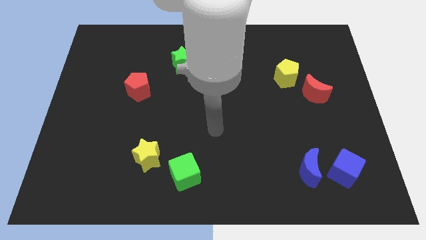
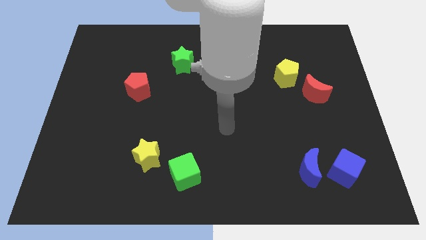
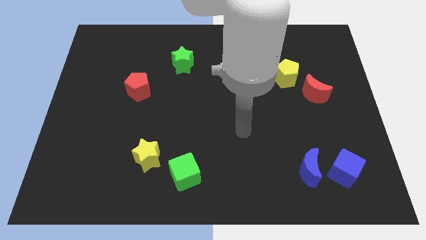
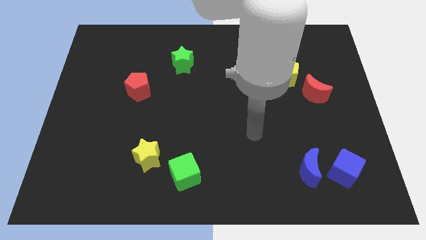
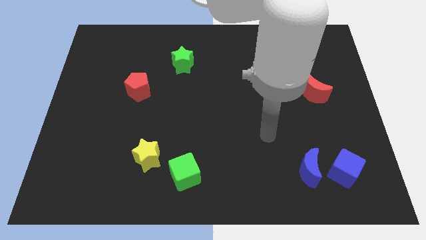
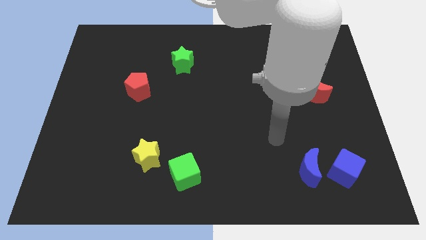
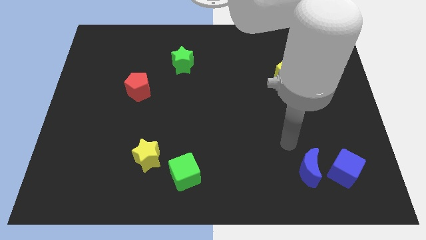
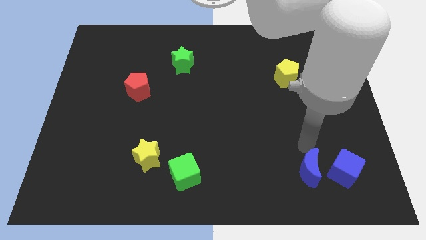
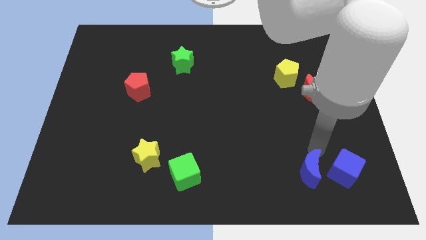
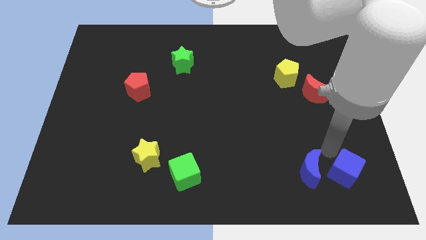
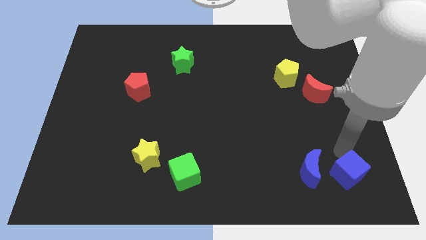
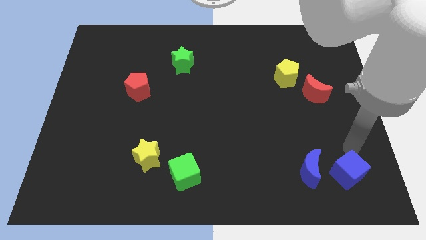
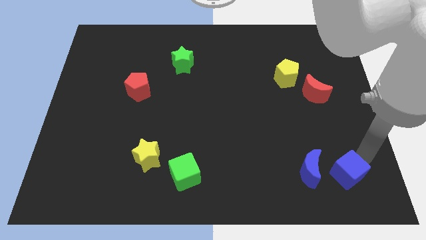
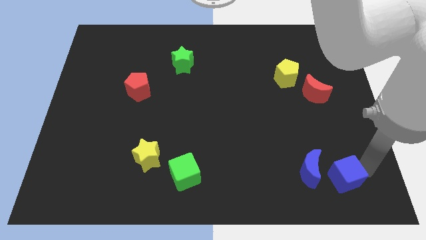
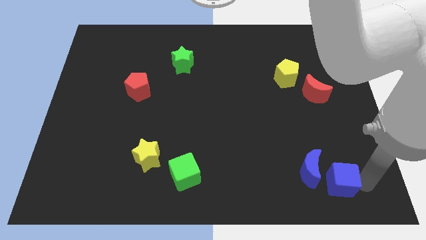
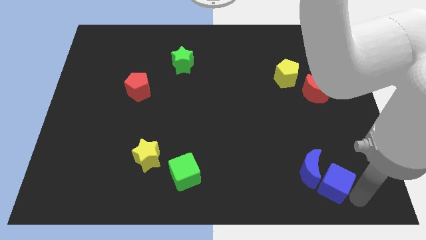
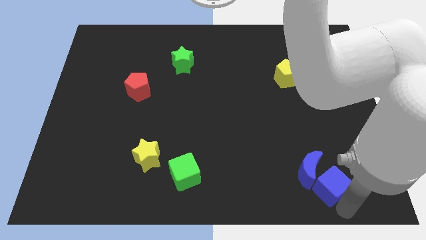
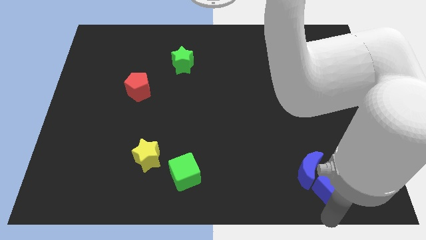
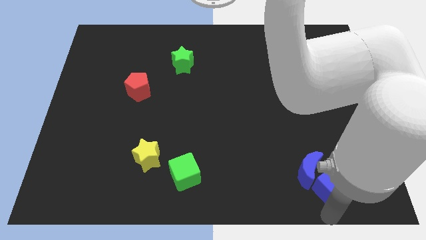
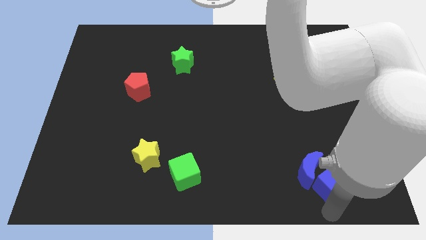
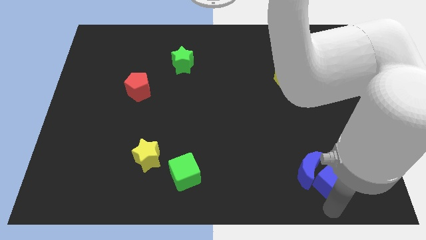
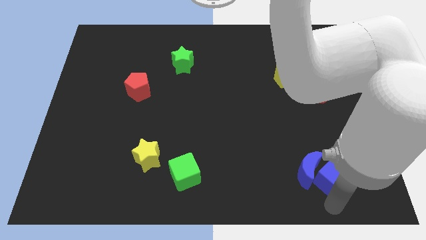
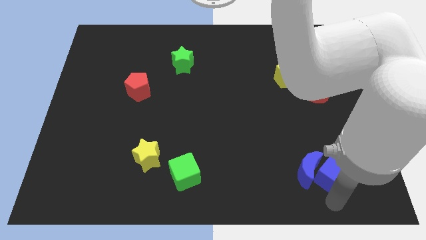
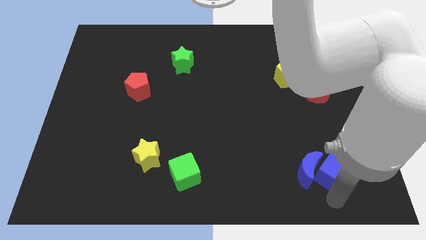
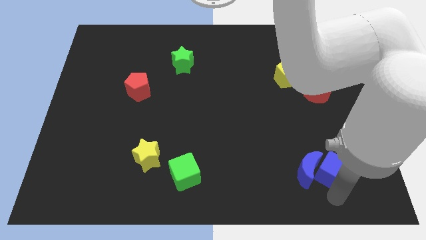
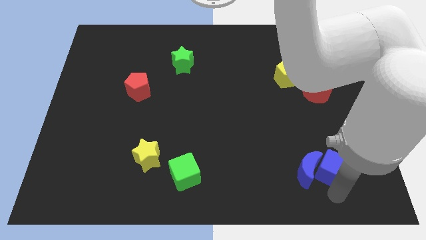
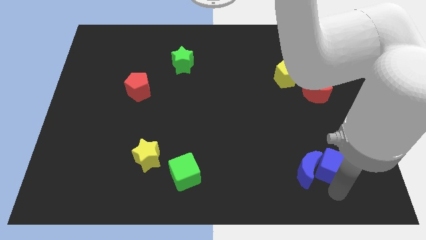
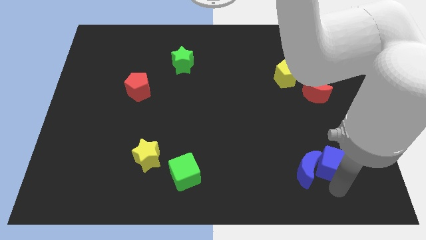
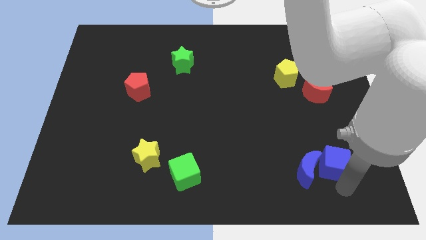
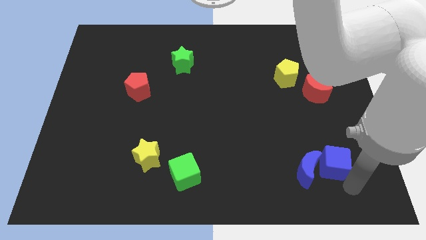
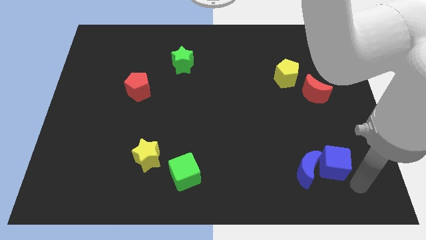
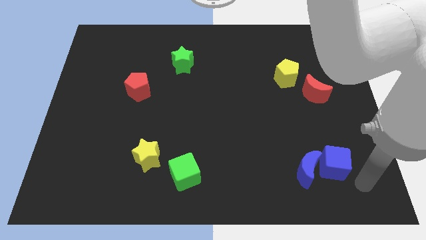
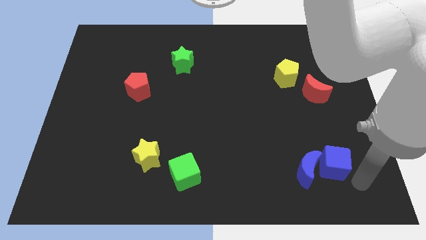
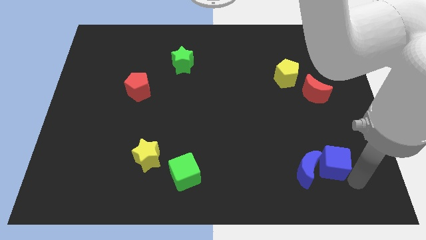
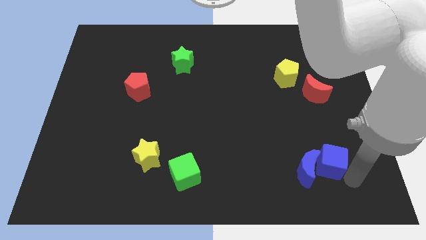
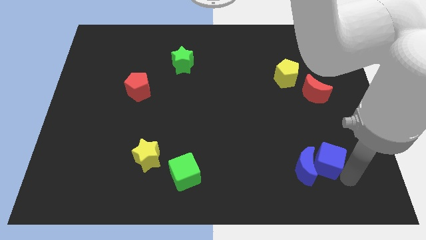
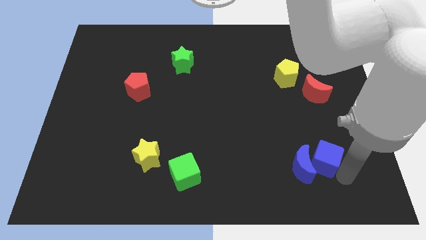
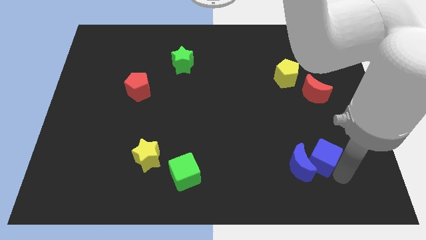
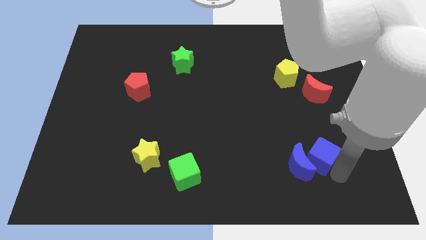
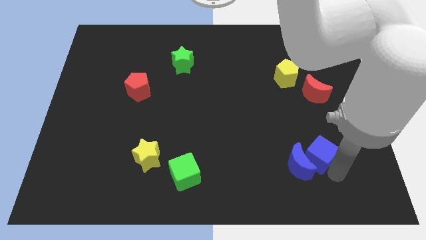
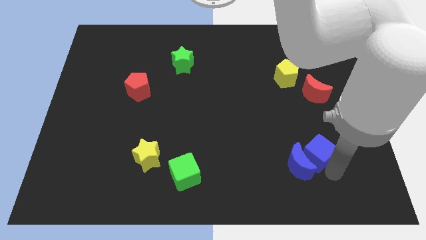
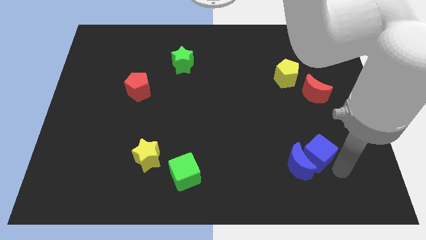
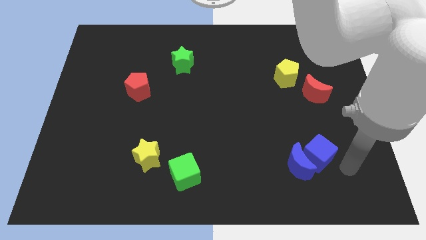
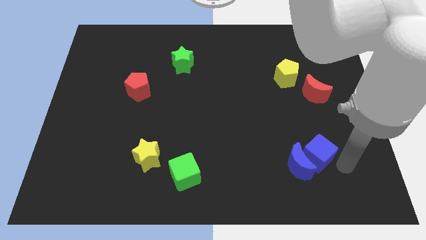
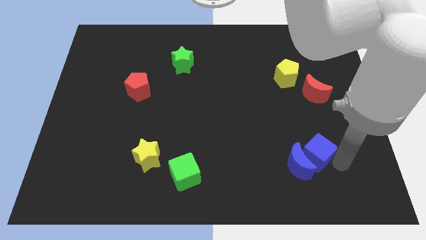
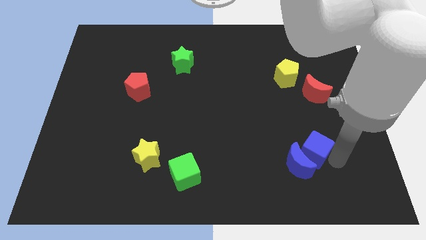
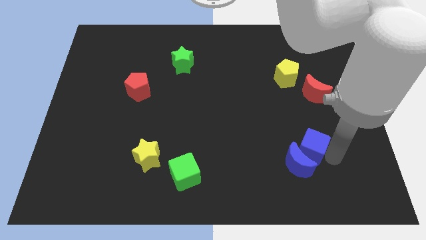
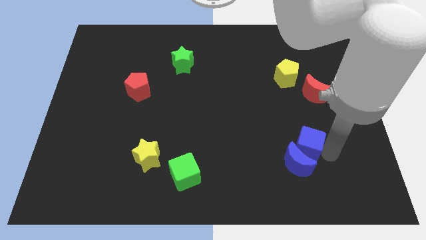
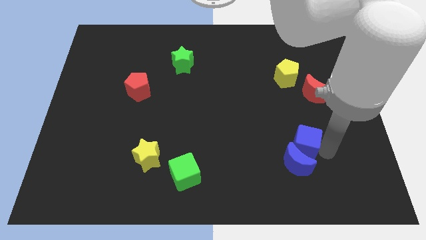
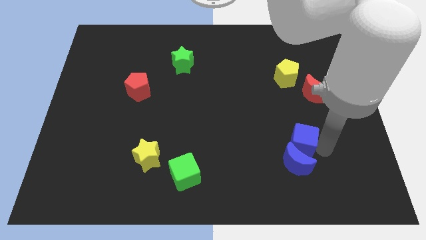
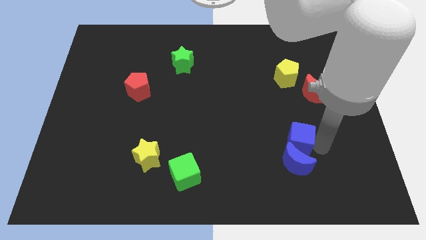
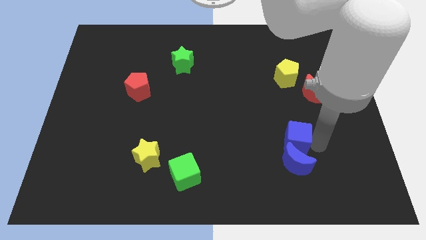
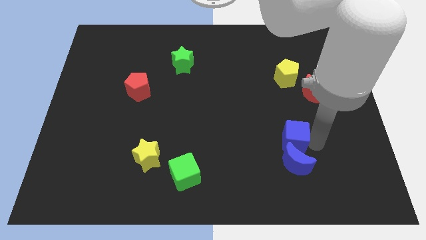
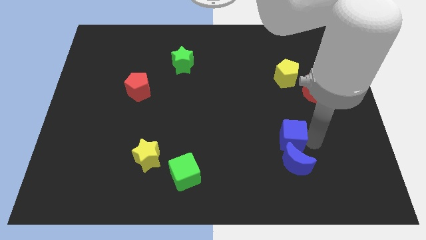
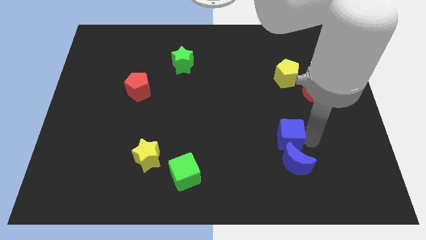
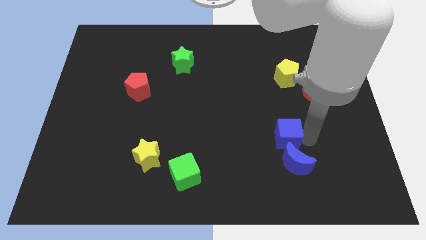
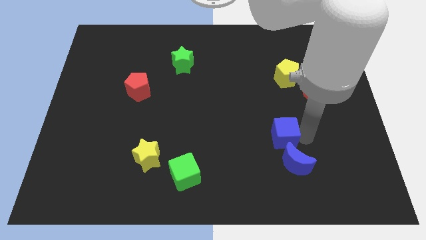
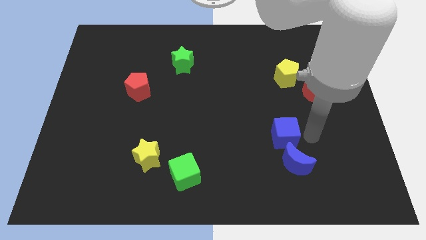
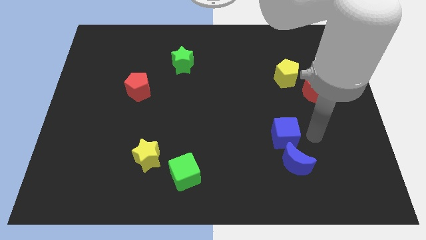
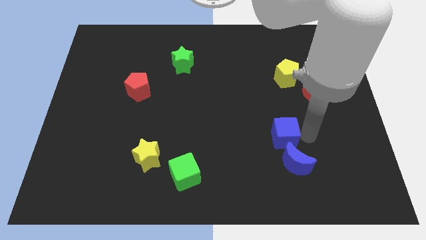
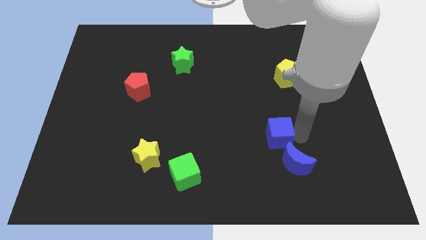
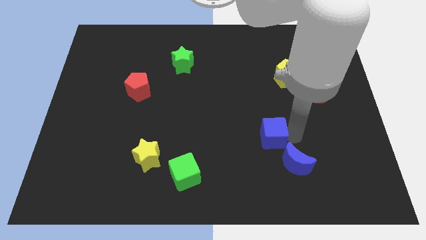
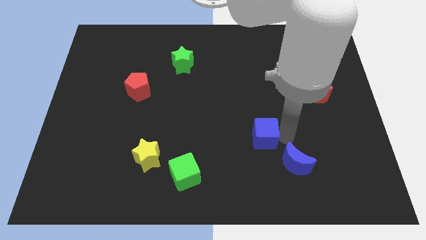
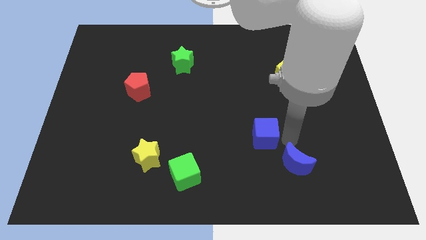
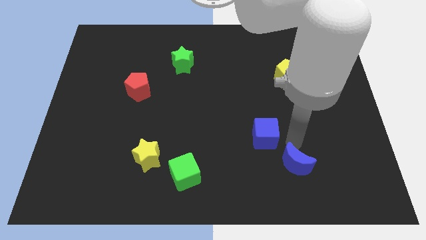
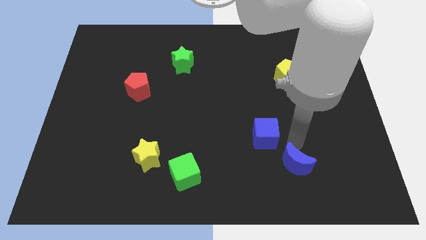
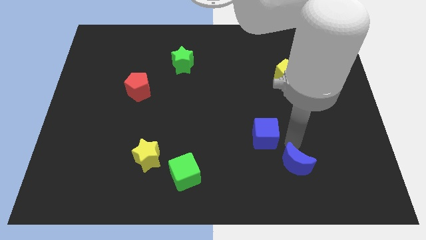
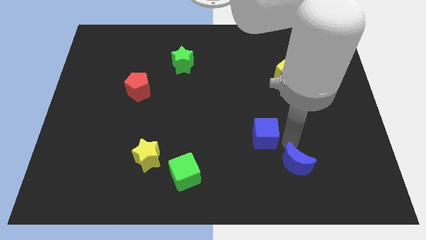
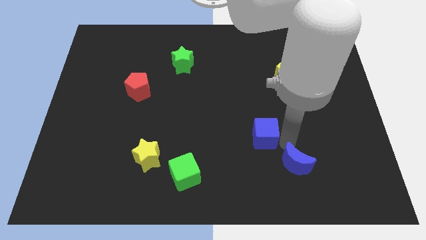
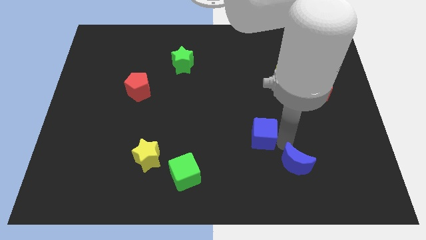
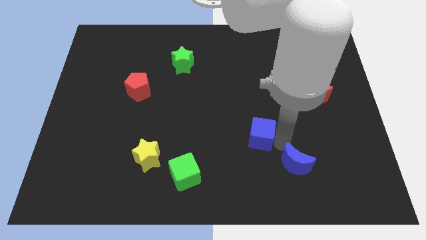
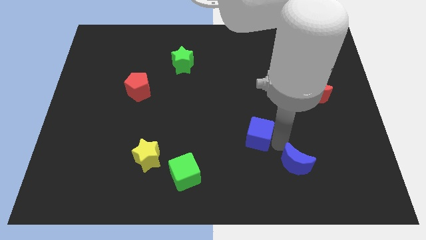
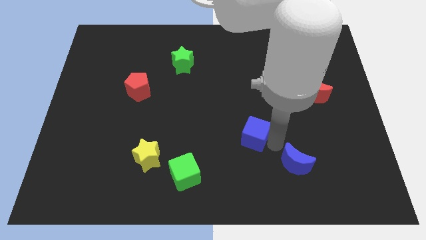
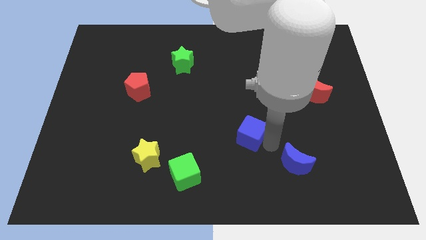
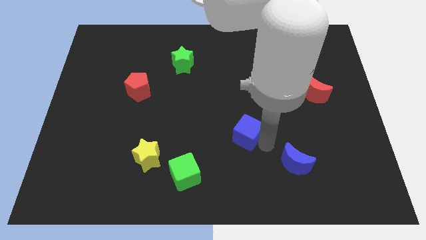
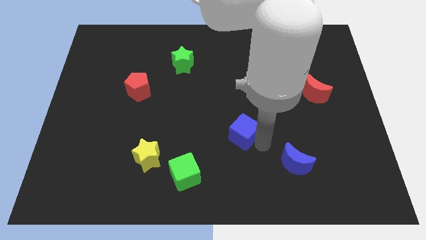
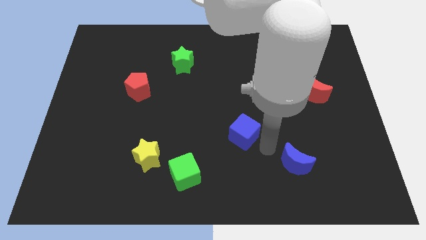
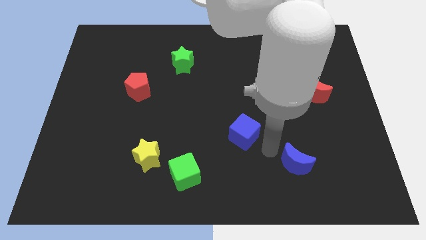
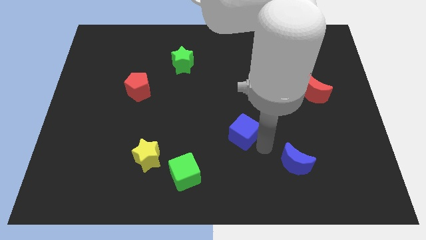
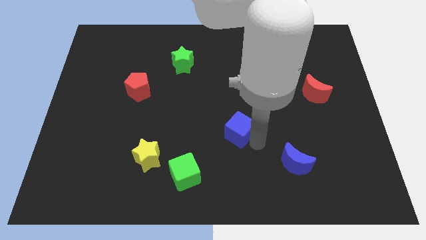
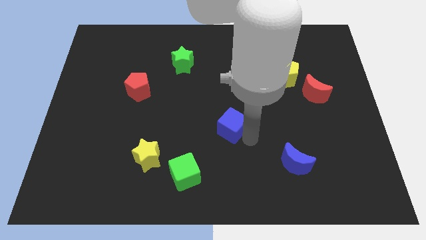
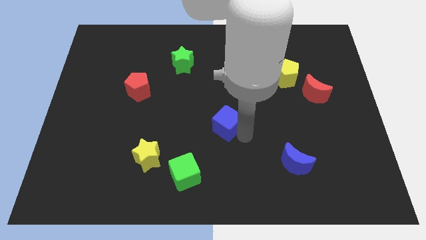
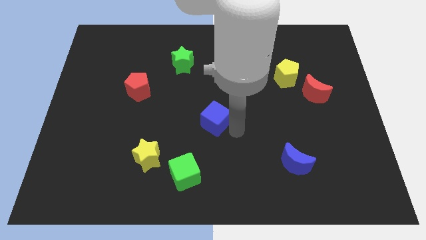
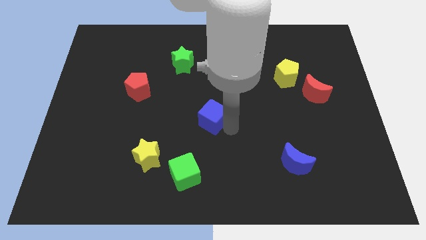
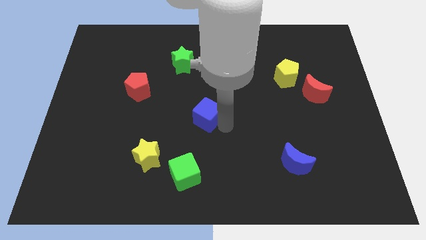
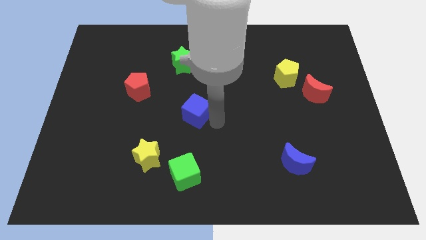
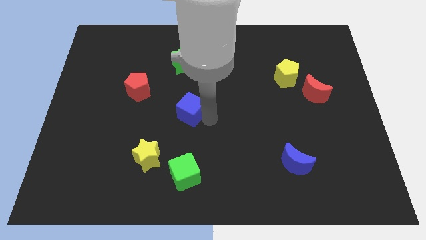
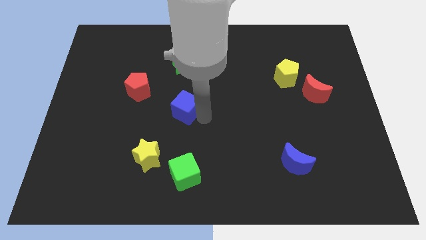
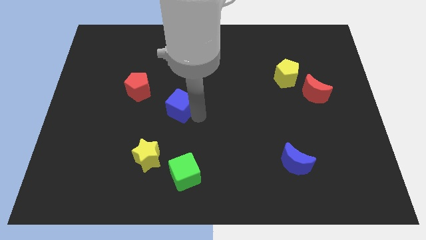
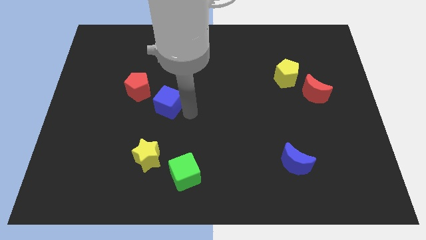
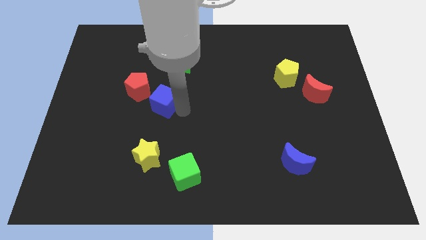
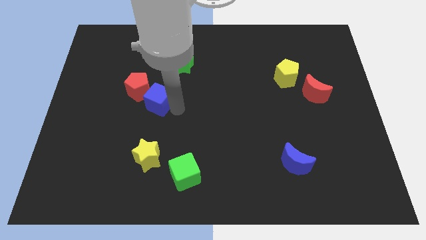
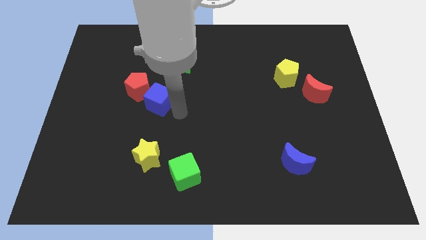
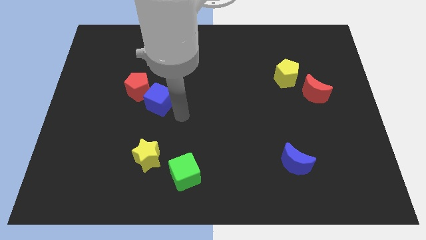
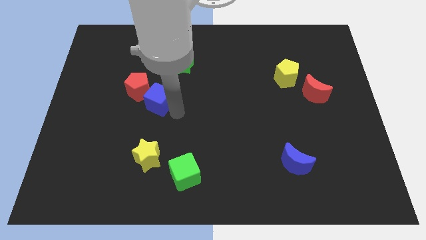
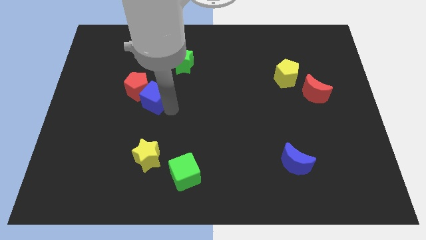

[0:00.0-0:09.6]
put the blue cube to the red pentagon
